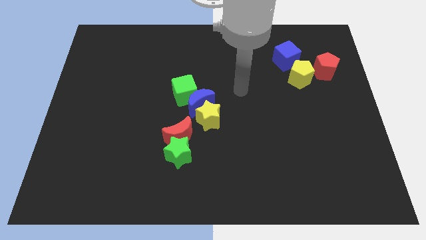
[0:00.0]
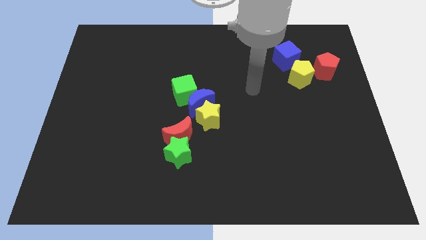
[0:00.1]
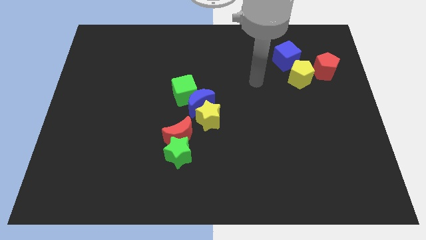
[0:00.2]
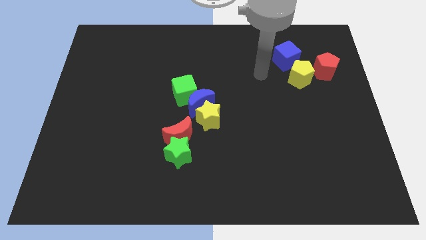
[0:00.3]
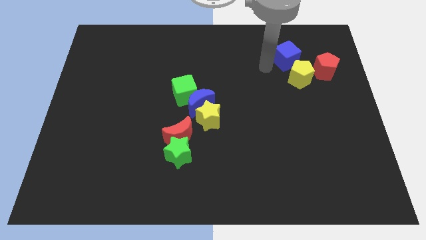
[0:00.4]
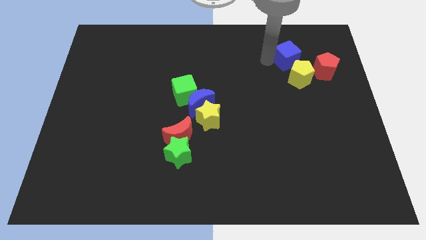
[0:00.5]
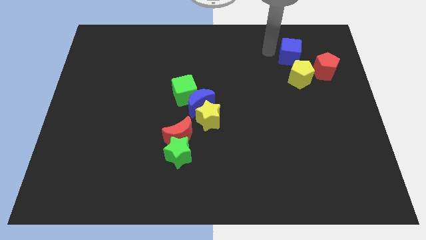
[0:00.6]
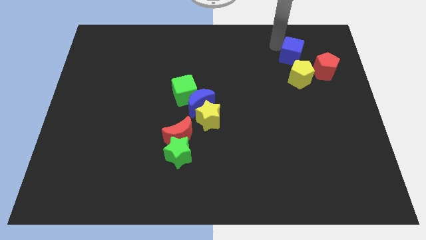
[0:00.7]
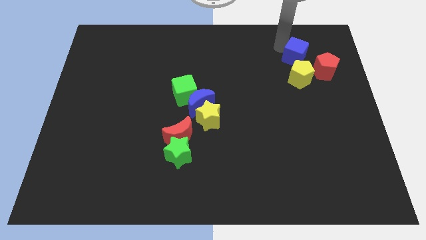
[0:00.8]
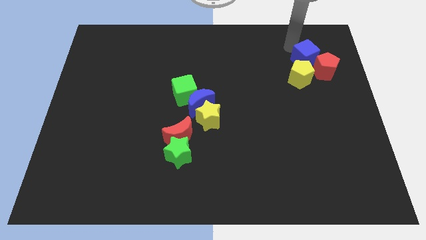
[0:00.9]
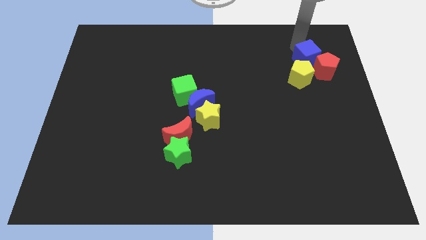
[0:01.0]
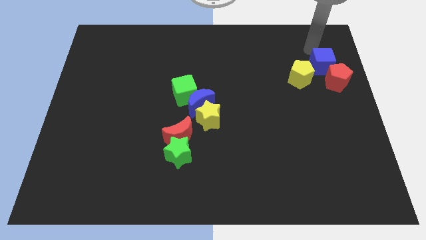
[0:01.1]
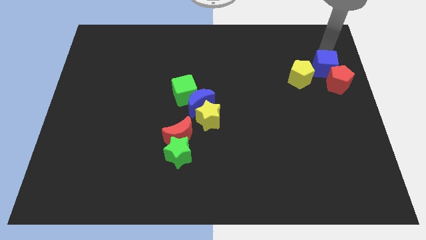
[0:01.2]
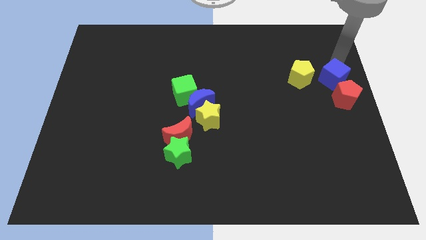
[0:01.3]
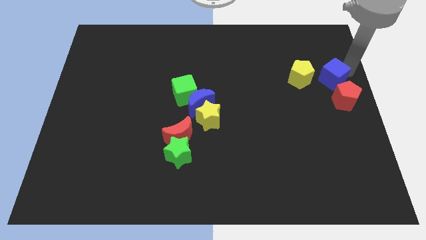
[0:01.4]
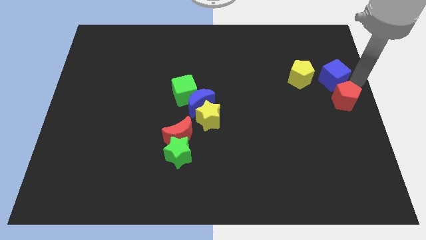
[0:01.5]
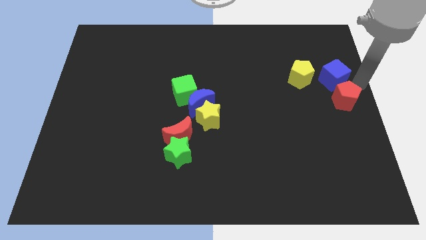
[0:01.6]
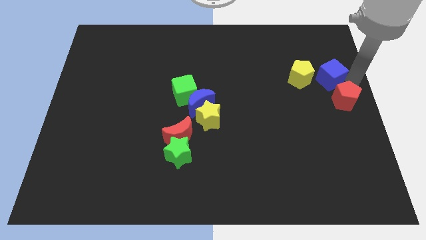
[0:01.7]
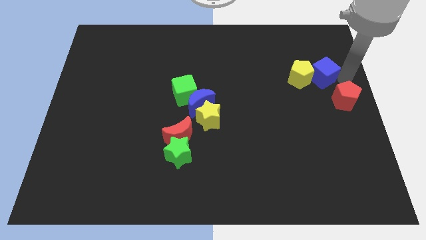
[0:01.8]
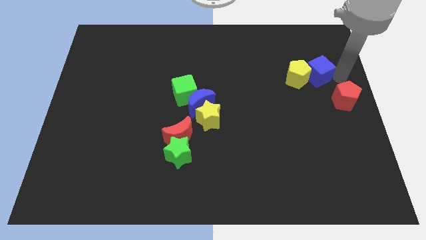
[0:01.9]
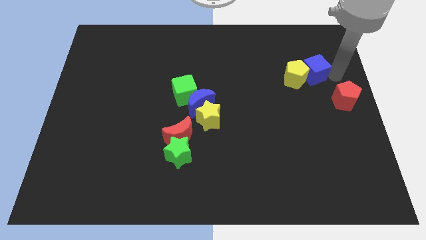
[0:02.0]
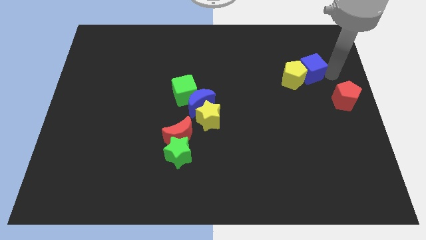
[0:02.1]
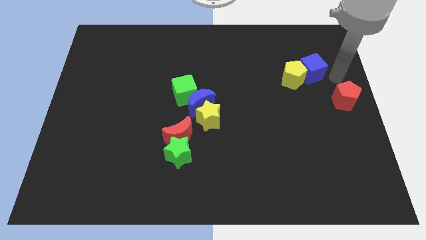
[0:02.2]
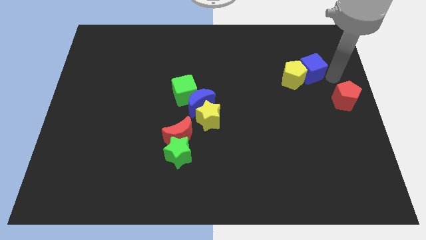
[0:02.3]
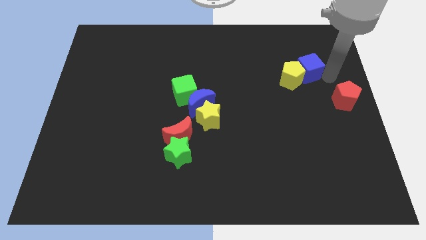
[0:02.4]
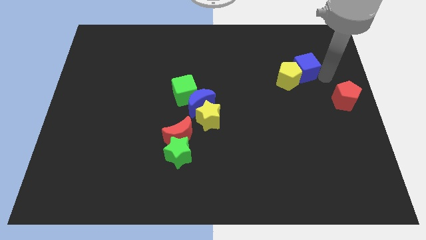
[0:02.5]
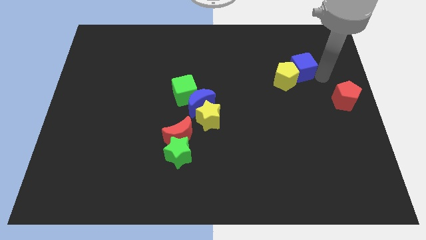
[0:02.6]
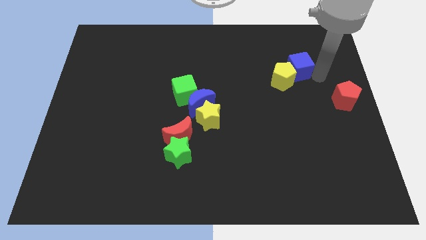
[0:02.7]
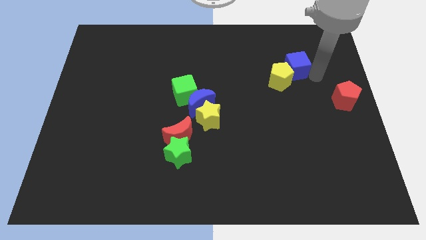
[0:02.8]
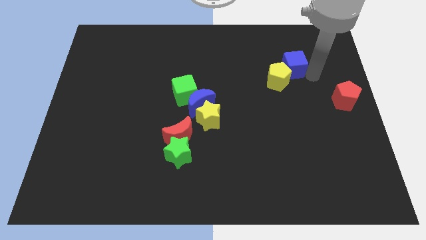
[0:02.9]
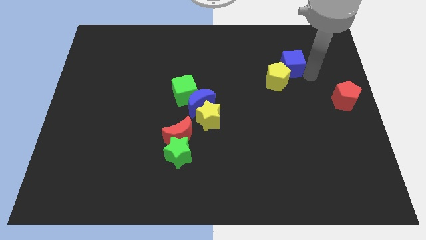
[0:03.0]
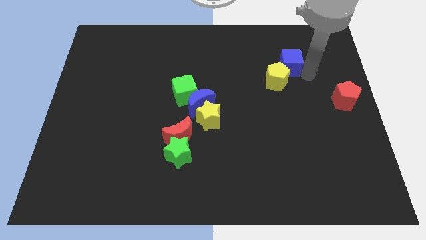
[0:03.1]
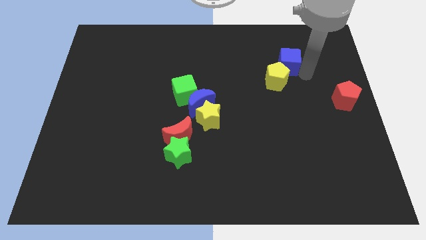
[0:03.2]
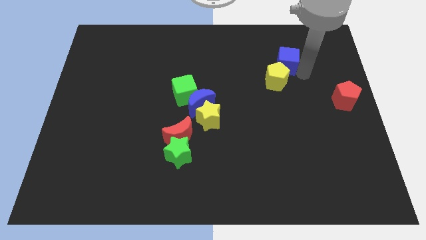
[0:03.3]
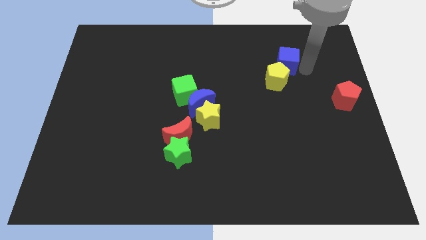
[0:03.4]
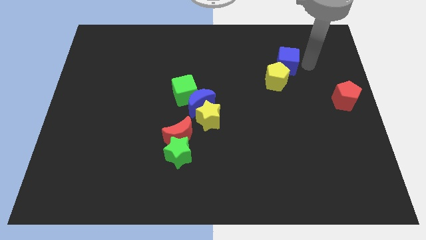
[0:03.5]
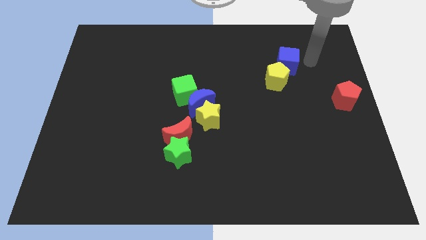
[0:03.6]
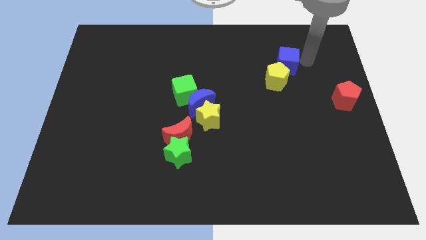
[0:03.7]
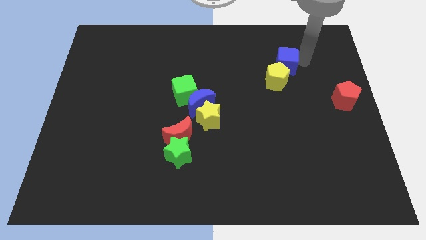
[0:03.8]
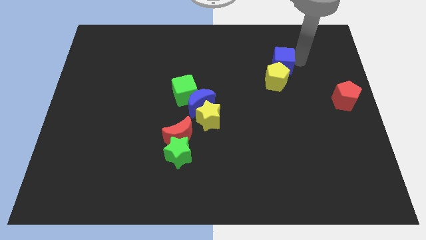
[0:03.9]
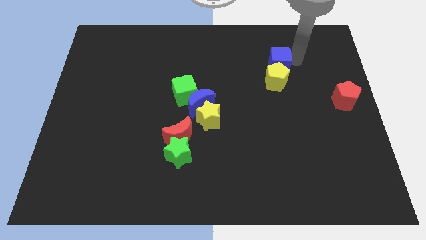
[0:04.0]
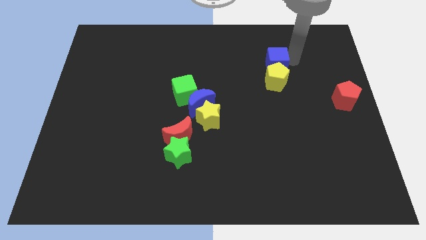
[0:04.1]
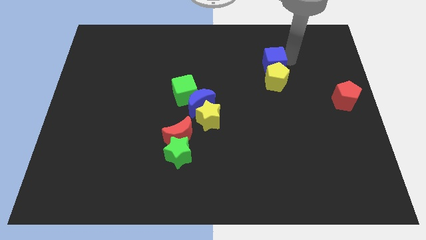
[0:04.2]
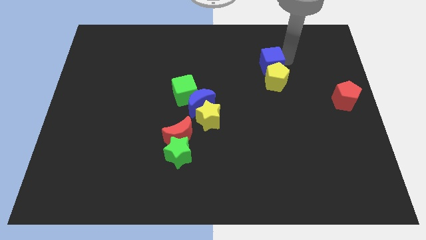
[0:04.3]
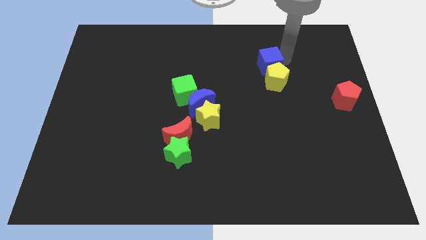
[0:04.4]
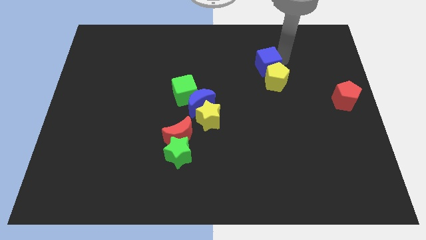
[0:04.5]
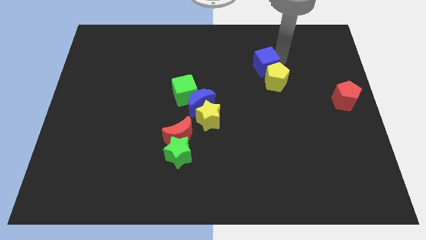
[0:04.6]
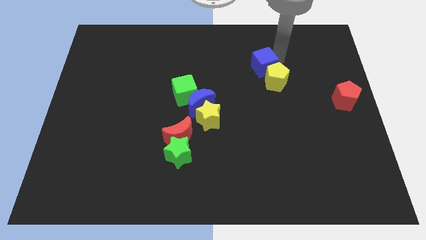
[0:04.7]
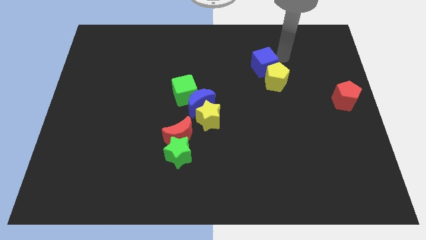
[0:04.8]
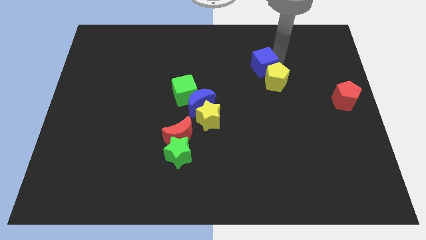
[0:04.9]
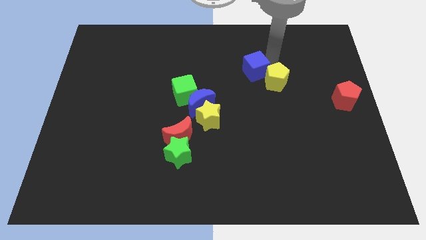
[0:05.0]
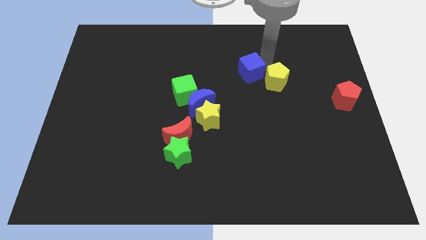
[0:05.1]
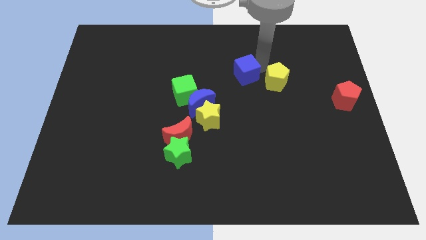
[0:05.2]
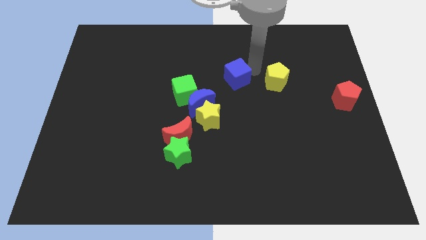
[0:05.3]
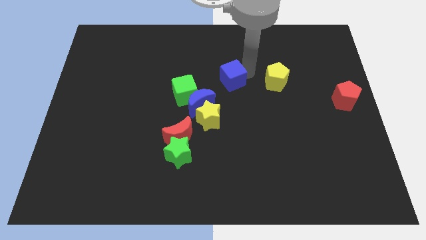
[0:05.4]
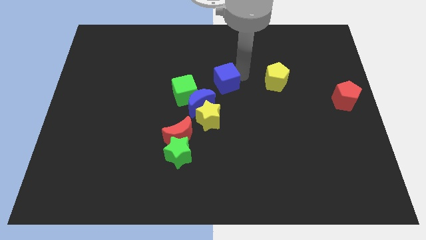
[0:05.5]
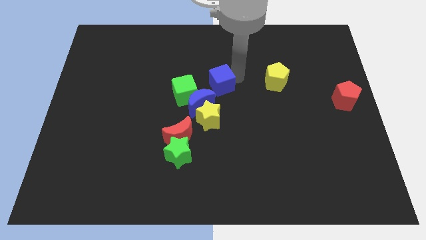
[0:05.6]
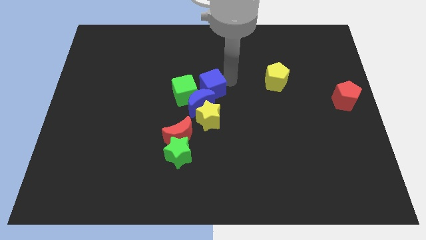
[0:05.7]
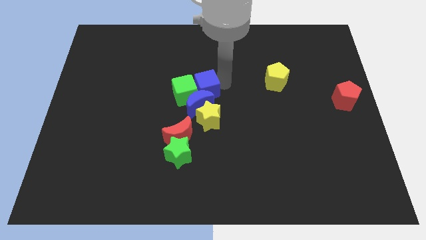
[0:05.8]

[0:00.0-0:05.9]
slide the blue cube close to the green cube

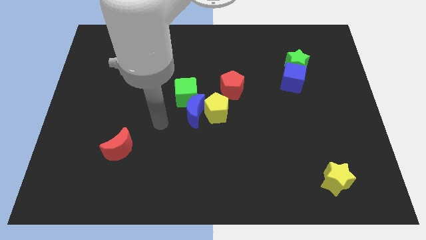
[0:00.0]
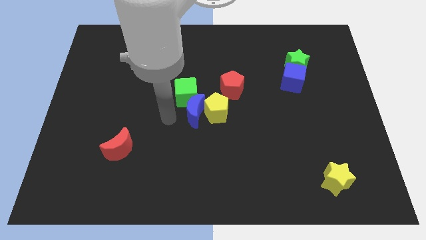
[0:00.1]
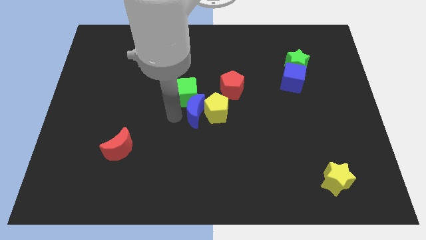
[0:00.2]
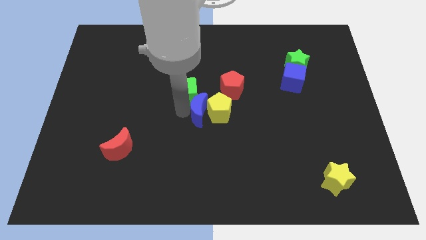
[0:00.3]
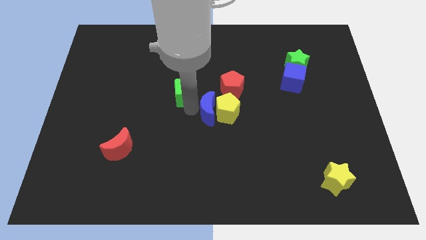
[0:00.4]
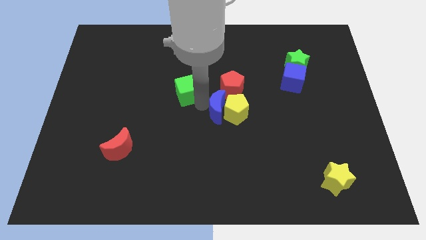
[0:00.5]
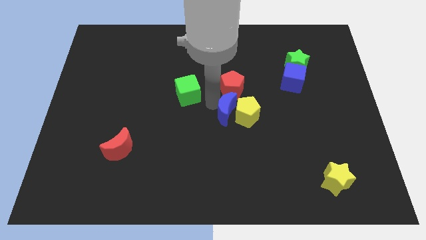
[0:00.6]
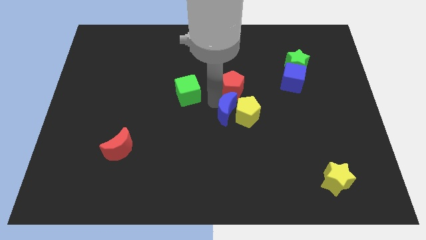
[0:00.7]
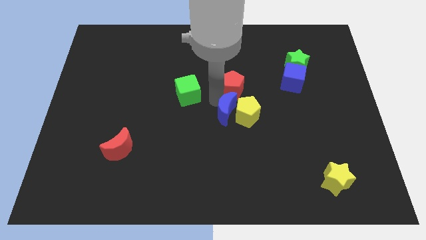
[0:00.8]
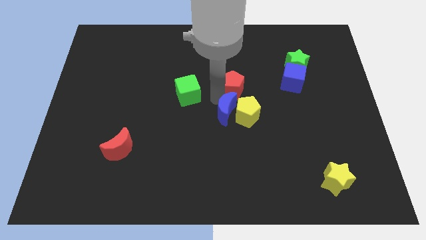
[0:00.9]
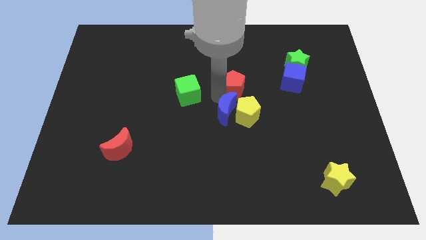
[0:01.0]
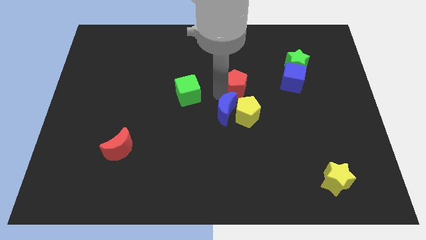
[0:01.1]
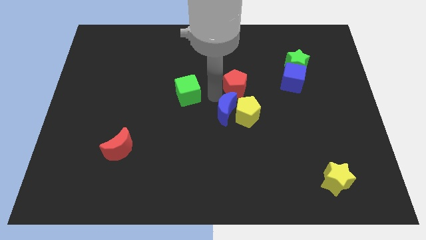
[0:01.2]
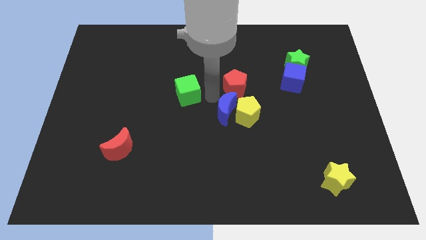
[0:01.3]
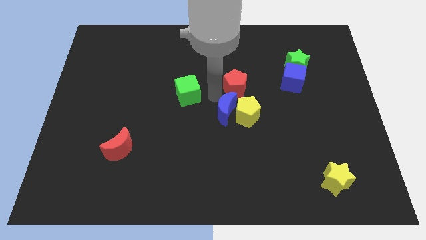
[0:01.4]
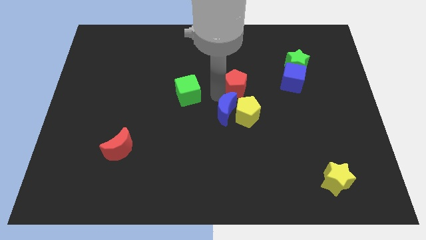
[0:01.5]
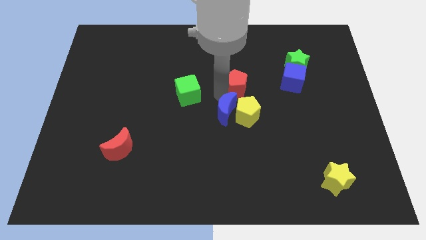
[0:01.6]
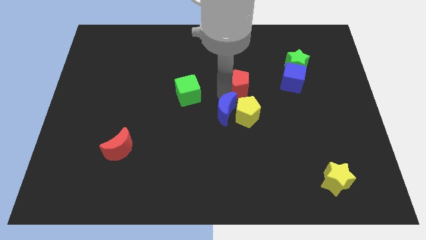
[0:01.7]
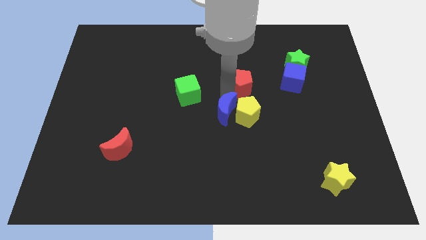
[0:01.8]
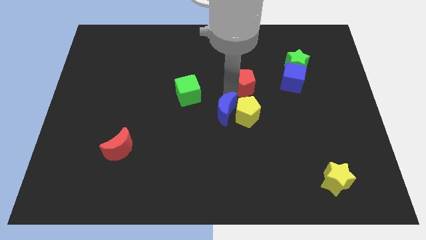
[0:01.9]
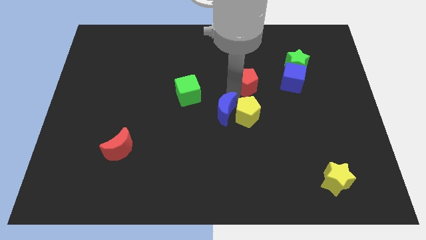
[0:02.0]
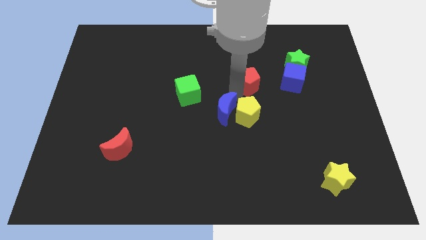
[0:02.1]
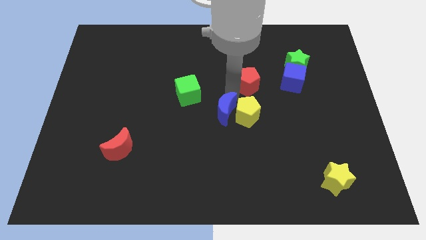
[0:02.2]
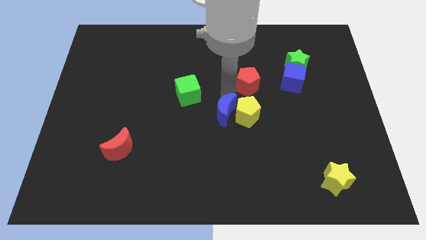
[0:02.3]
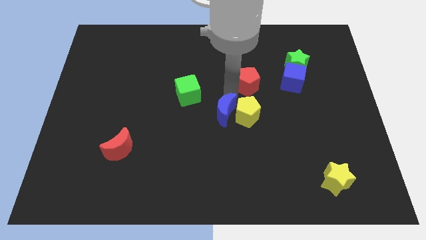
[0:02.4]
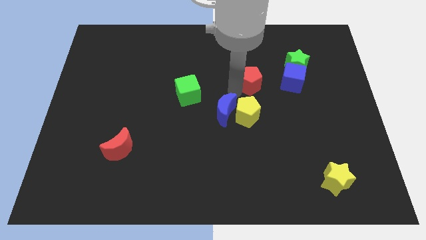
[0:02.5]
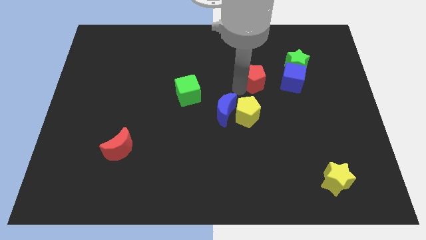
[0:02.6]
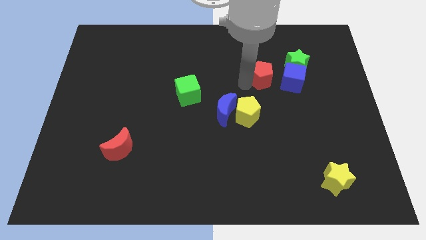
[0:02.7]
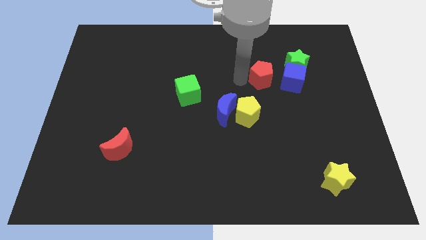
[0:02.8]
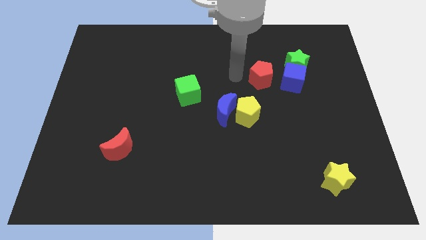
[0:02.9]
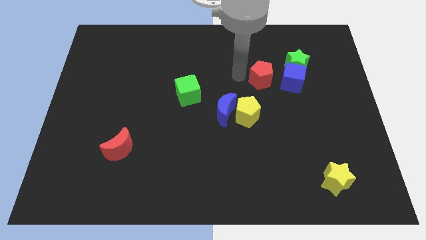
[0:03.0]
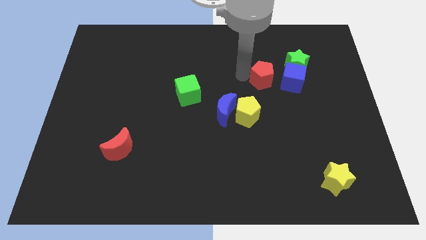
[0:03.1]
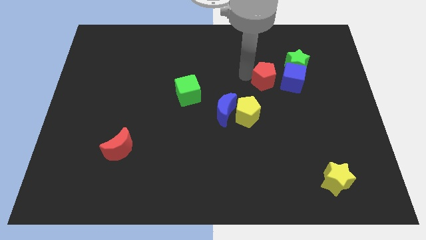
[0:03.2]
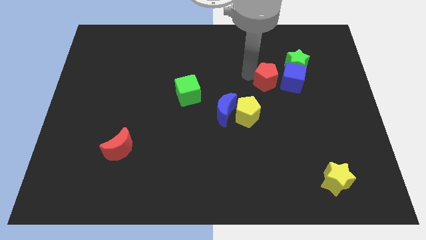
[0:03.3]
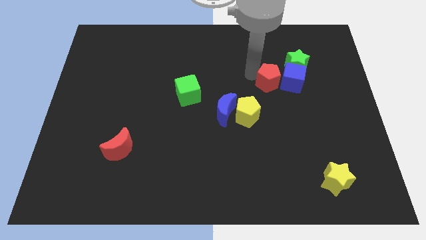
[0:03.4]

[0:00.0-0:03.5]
put the red pentagon close to the blue cube
